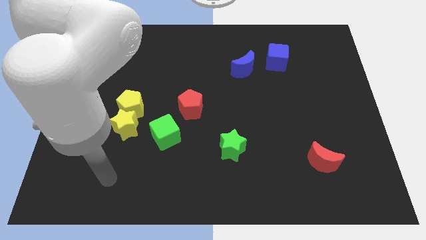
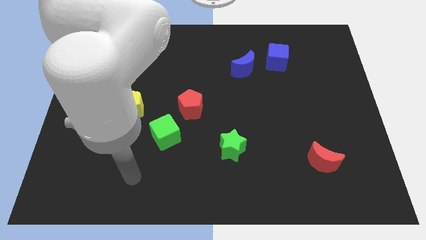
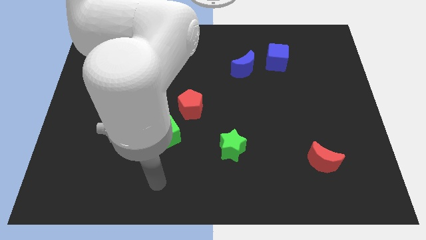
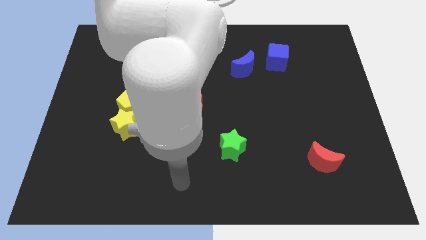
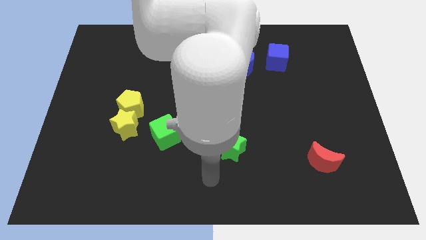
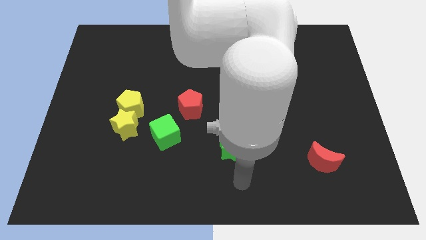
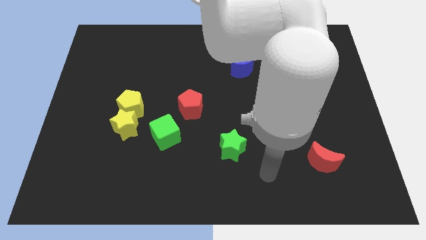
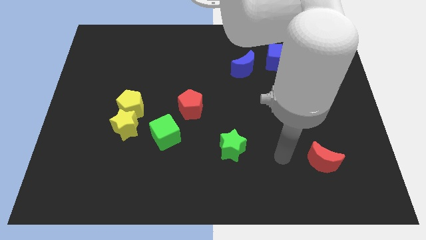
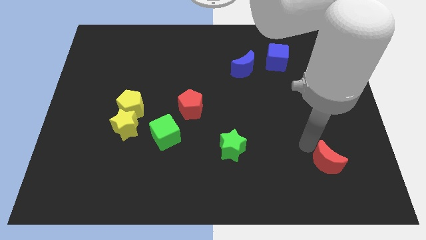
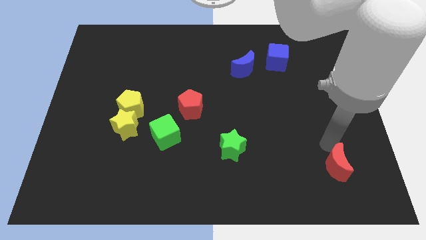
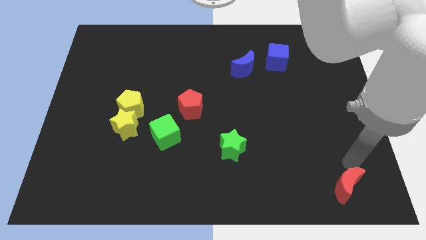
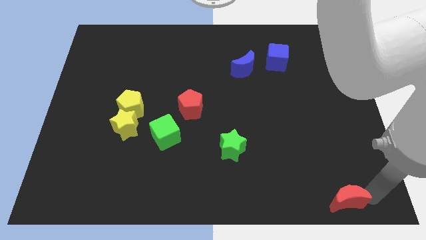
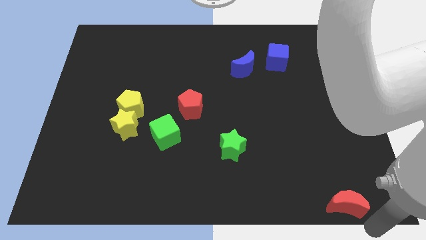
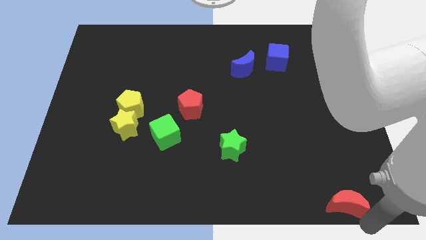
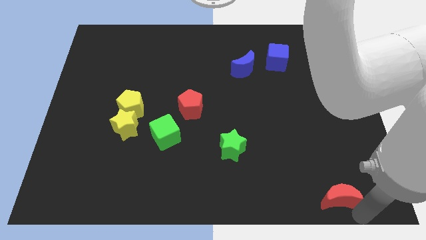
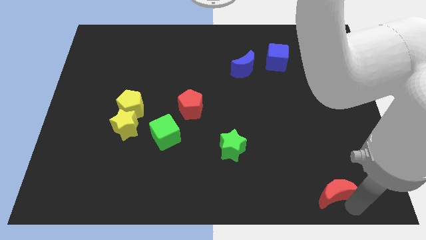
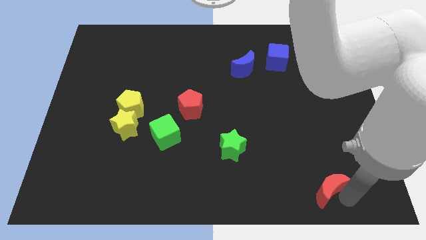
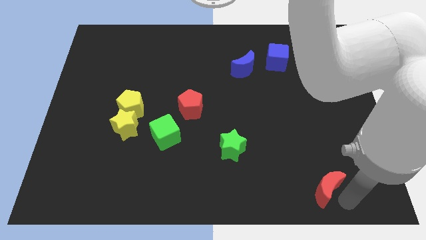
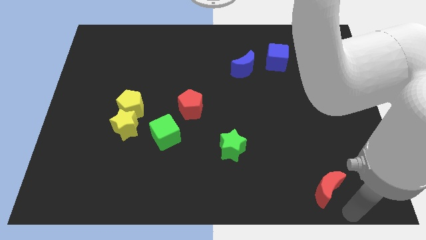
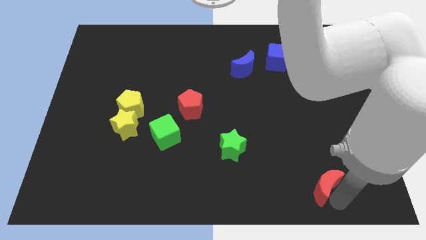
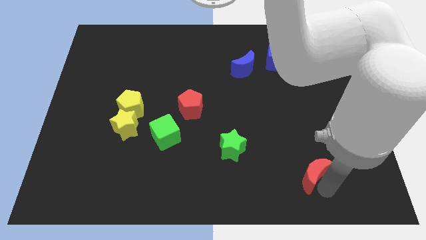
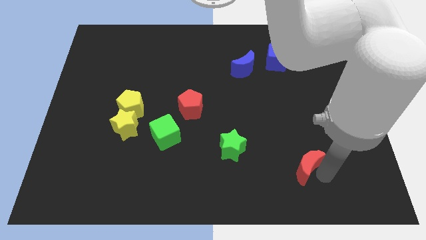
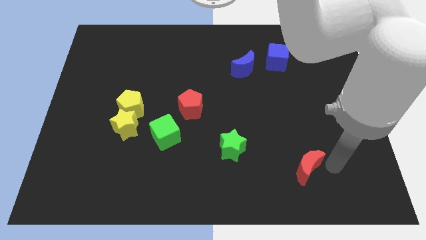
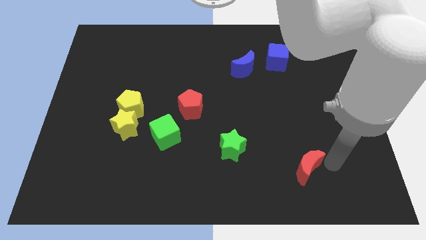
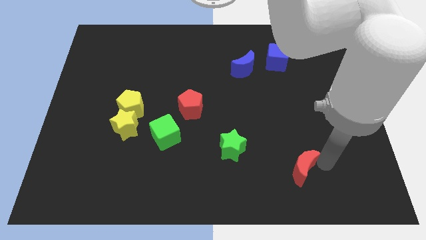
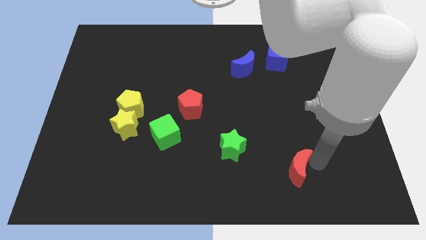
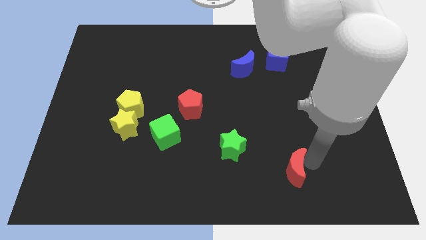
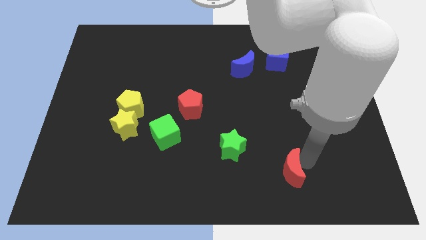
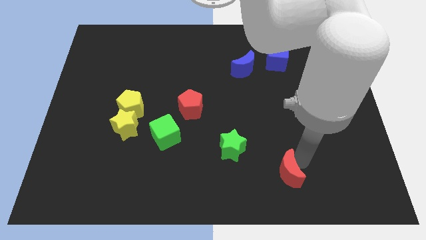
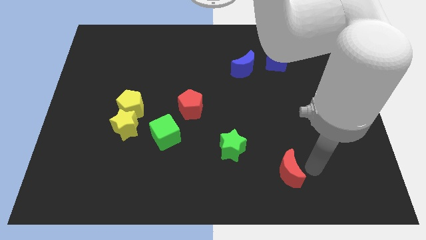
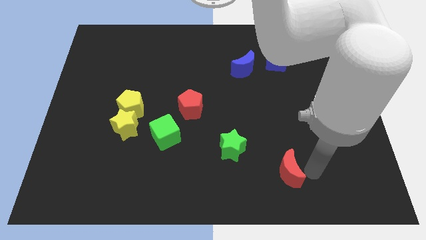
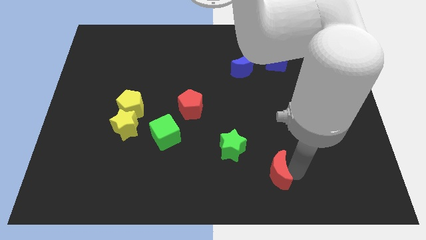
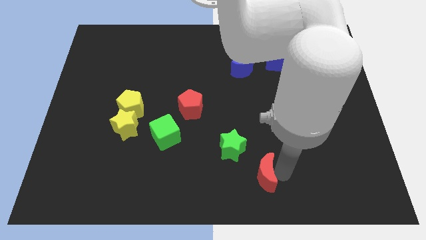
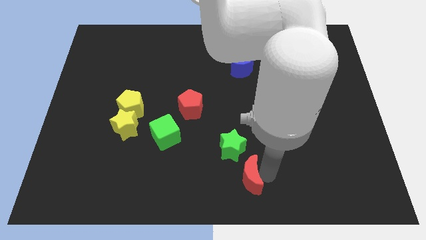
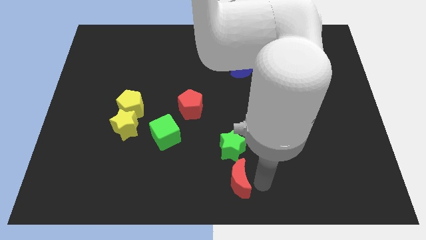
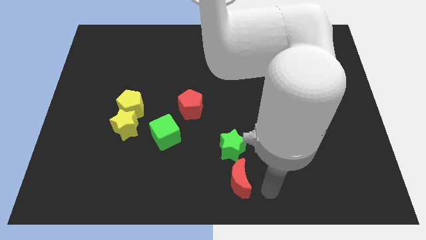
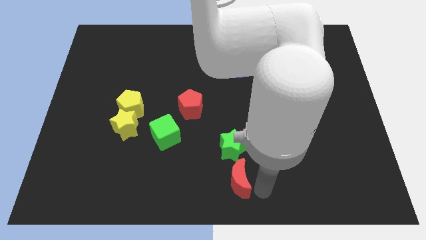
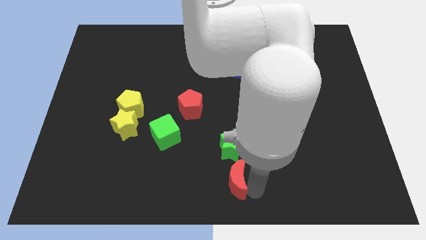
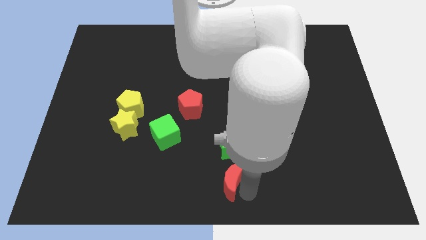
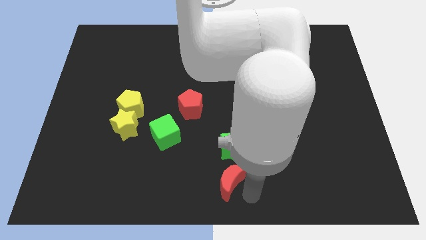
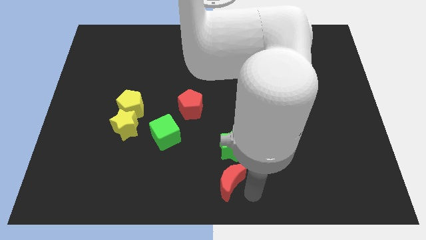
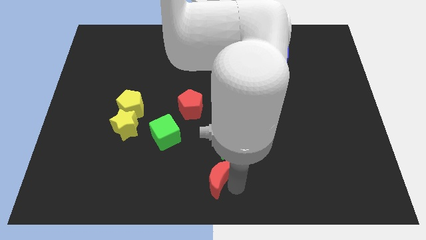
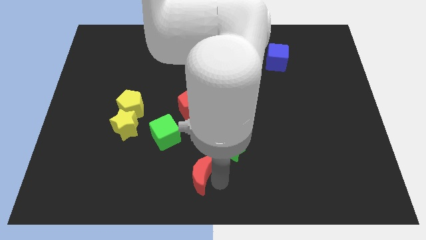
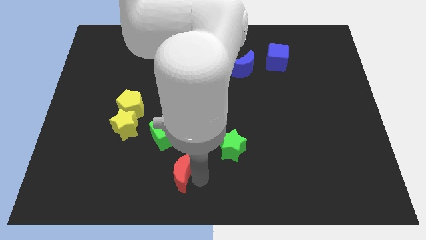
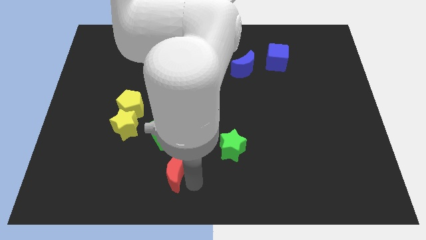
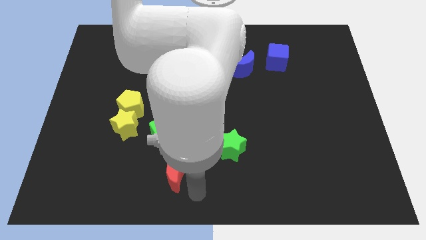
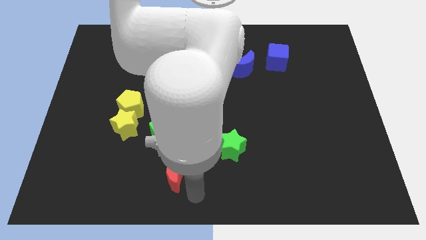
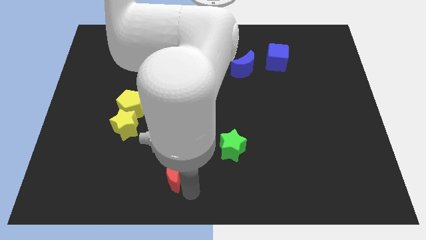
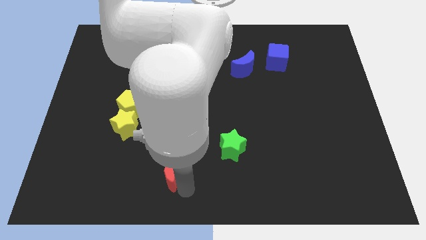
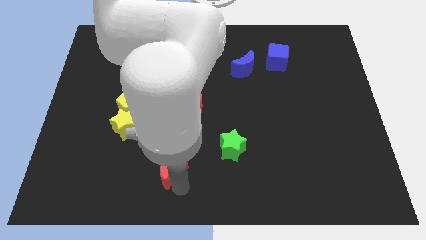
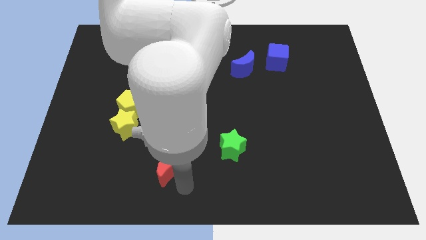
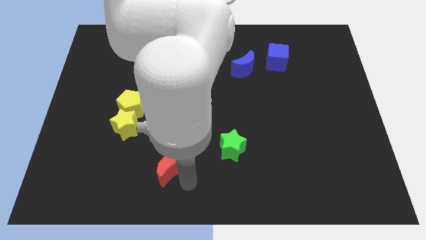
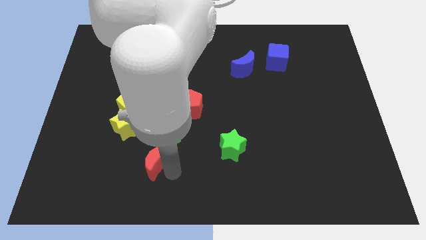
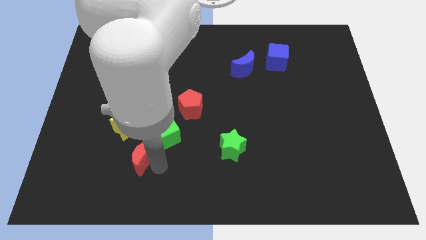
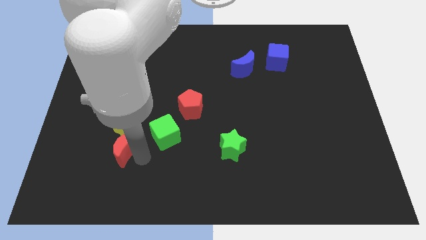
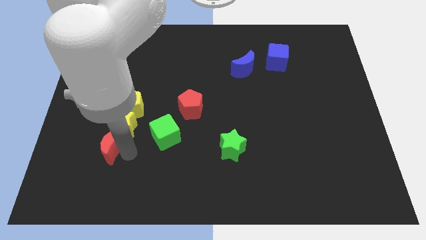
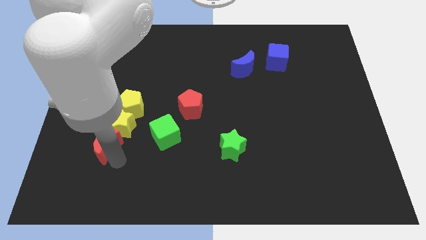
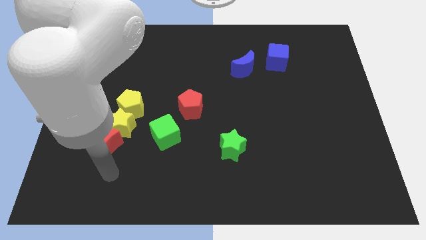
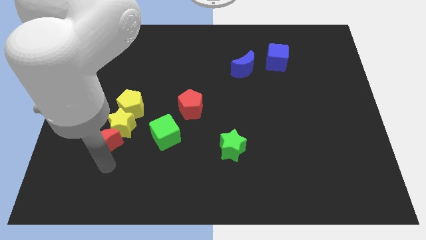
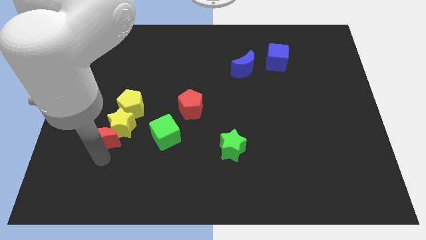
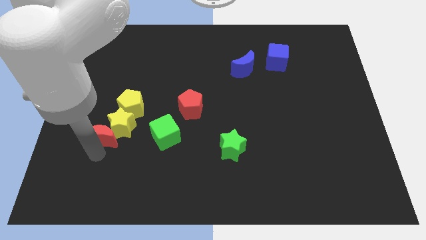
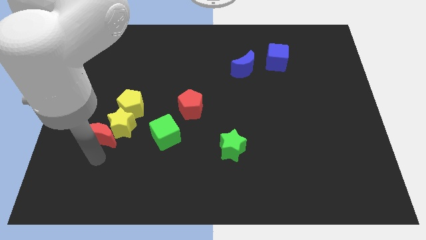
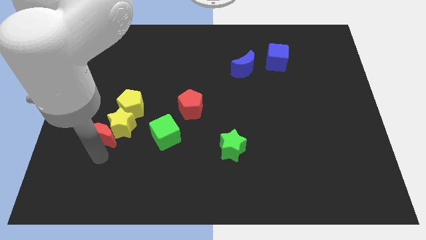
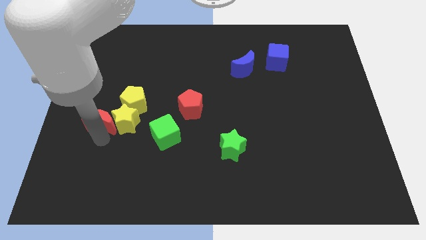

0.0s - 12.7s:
push the red moon to the top left of the yellow star

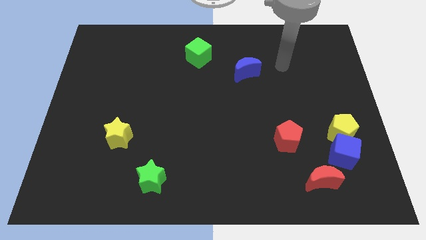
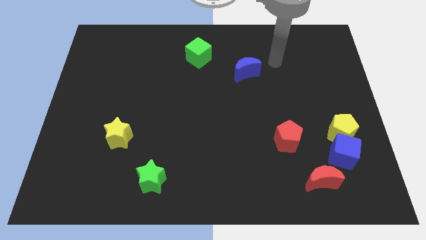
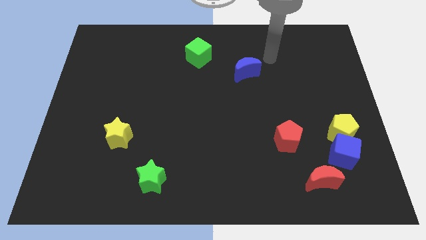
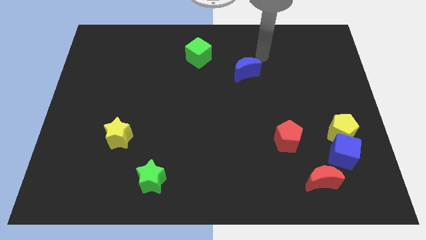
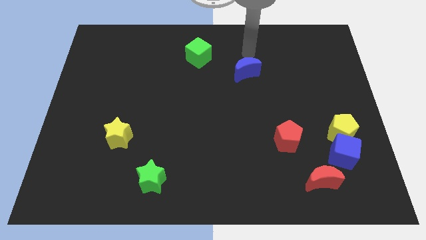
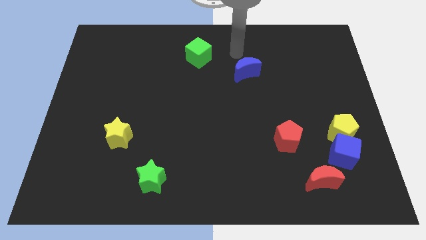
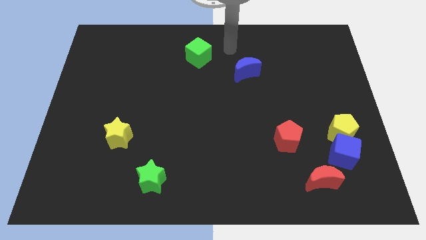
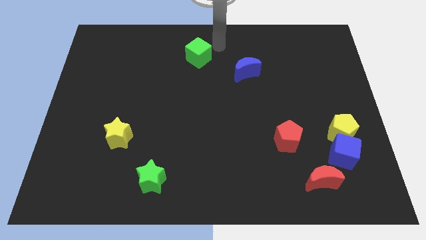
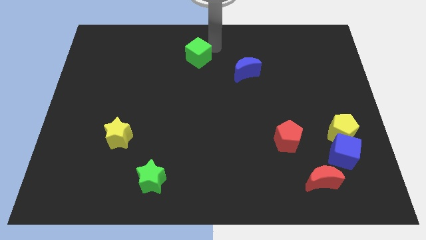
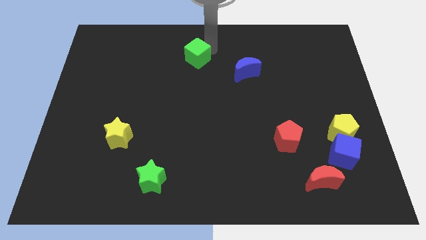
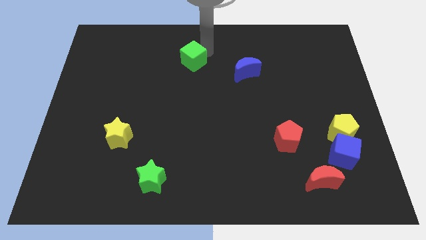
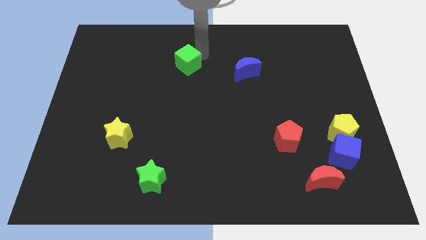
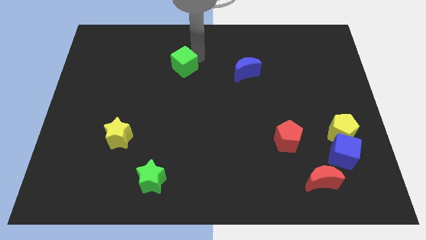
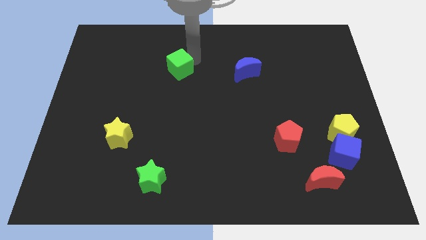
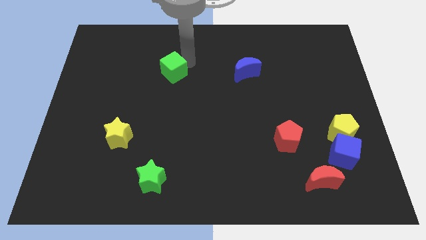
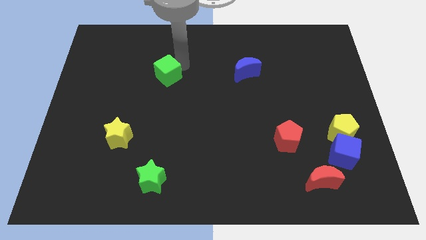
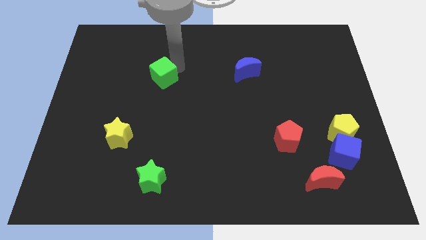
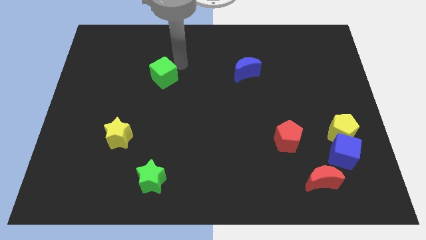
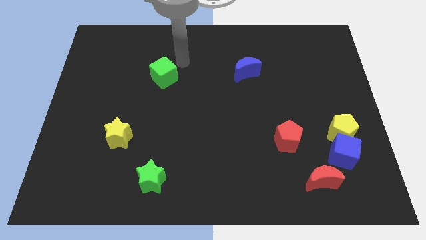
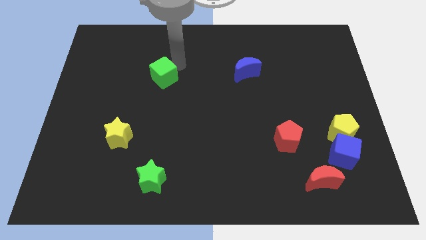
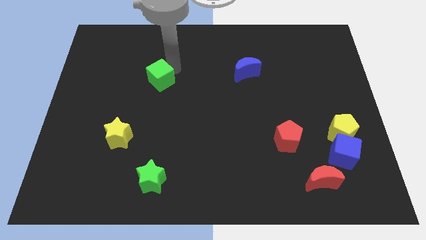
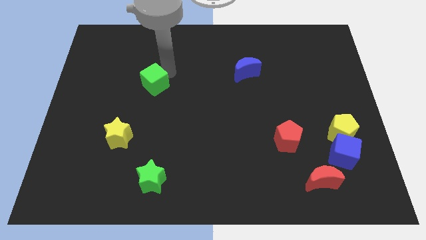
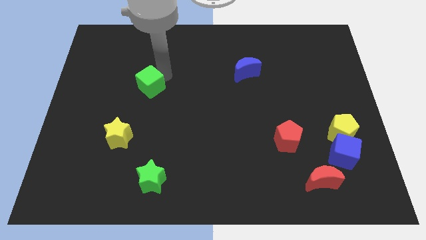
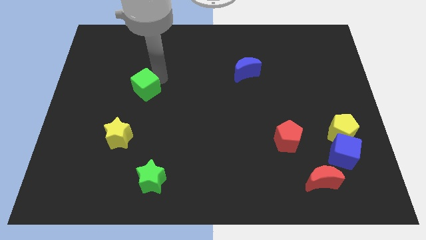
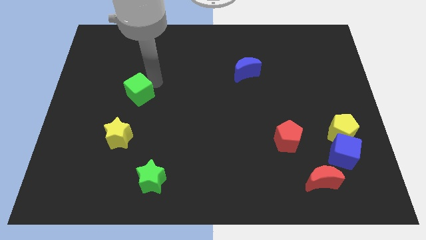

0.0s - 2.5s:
slide the green cube to the top of the yellow star
